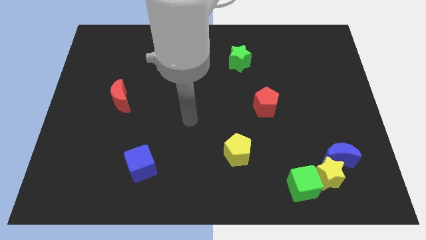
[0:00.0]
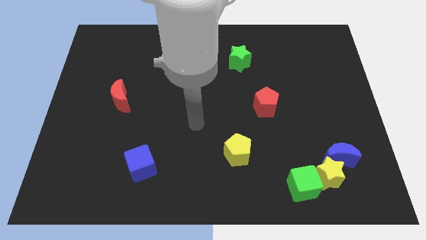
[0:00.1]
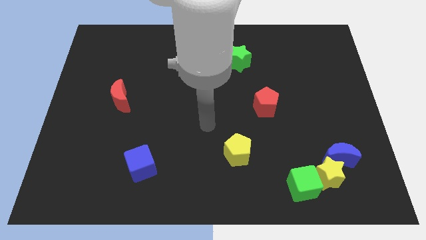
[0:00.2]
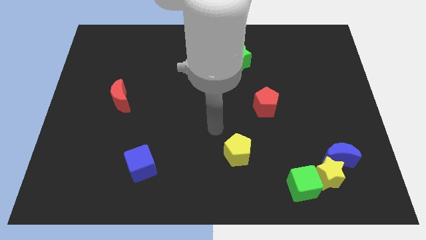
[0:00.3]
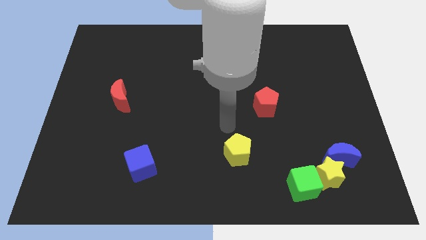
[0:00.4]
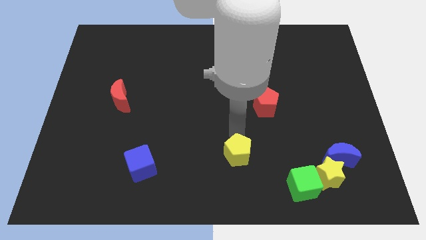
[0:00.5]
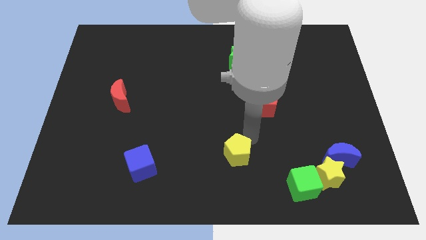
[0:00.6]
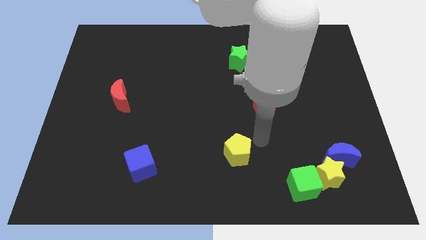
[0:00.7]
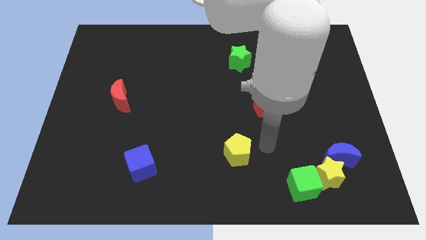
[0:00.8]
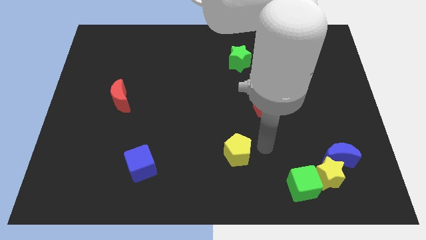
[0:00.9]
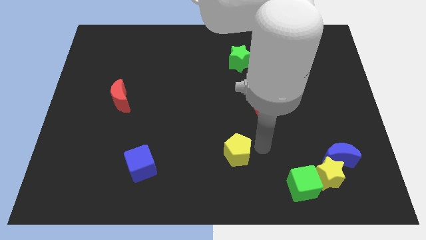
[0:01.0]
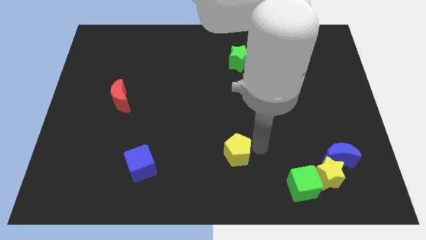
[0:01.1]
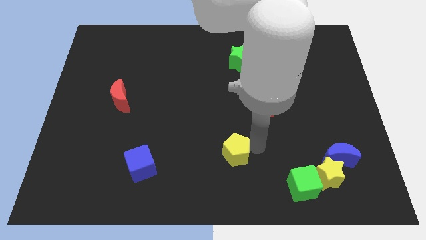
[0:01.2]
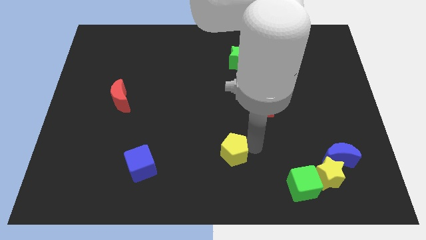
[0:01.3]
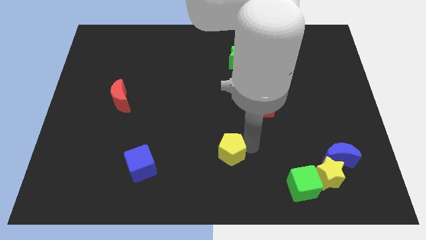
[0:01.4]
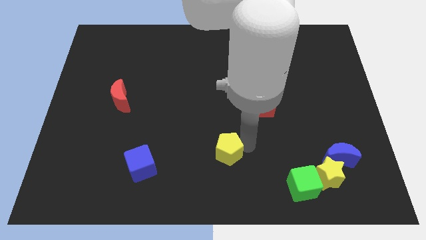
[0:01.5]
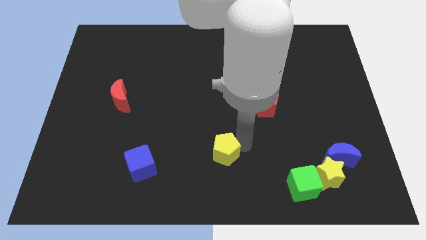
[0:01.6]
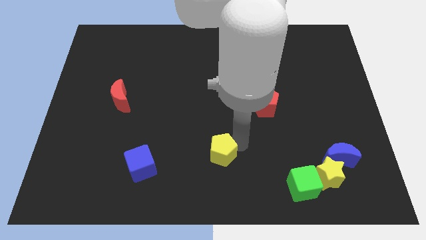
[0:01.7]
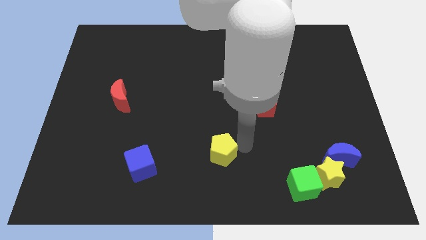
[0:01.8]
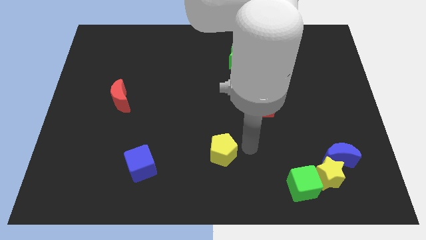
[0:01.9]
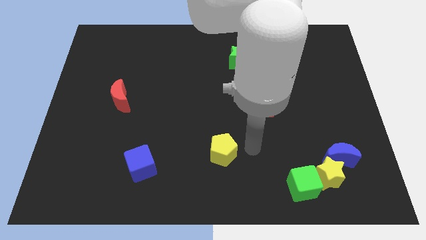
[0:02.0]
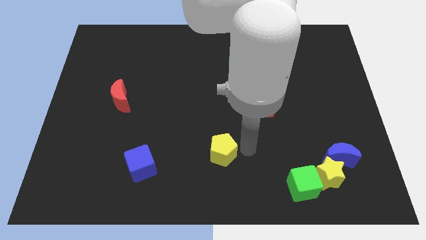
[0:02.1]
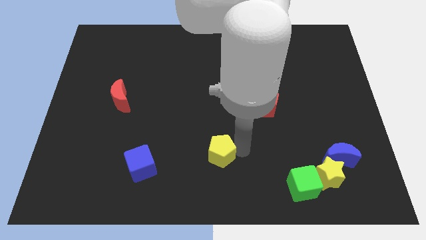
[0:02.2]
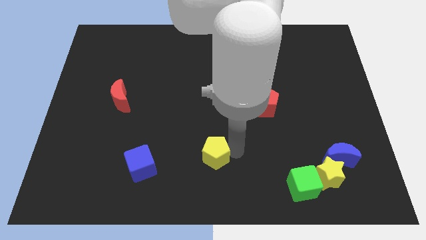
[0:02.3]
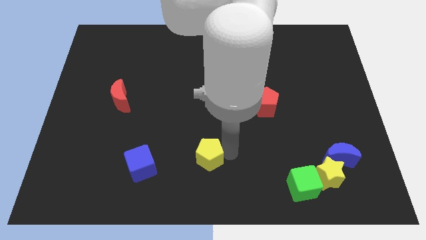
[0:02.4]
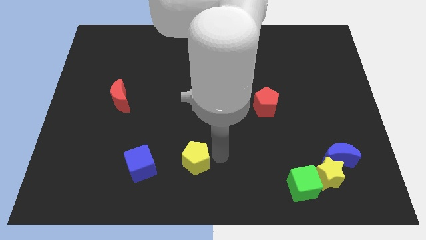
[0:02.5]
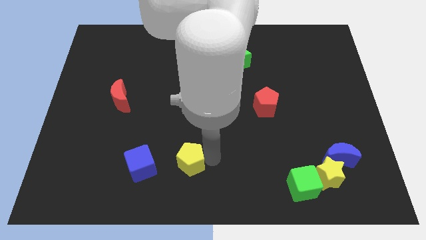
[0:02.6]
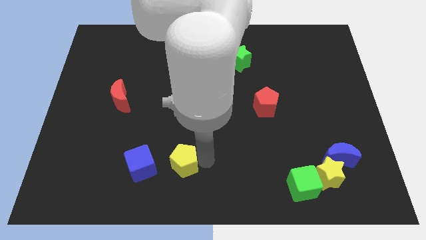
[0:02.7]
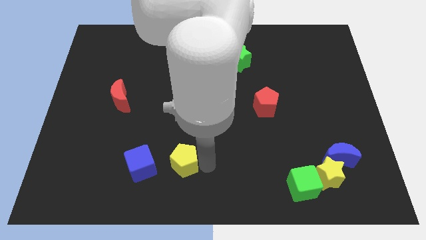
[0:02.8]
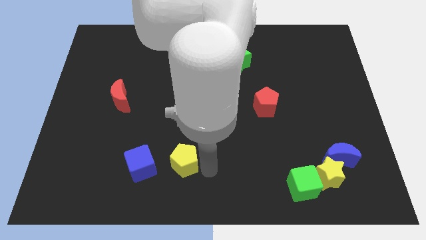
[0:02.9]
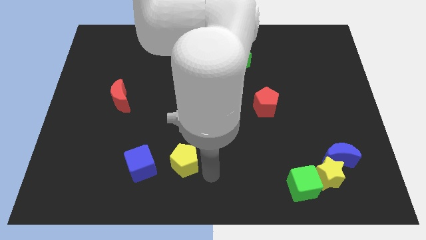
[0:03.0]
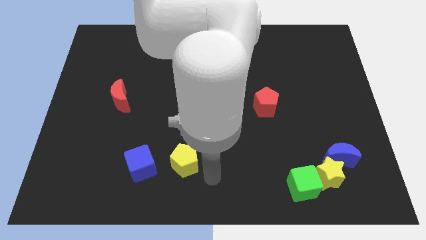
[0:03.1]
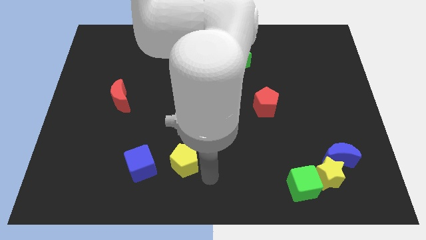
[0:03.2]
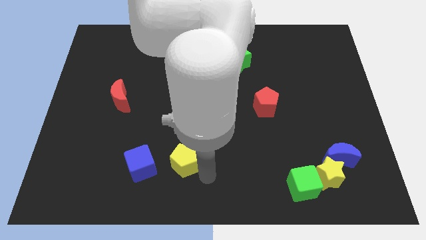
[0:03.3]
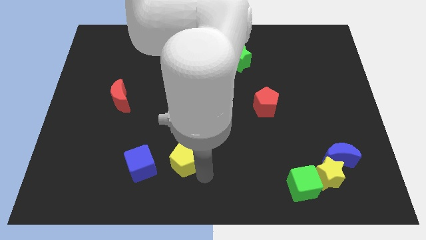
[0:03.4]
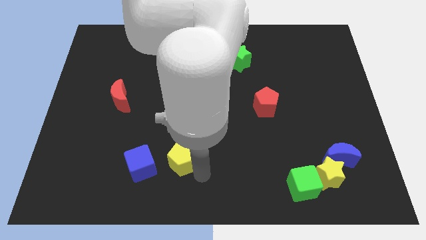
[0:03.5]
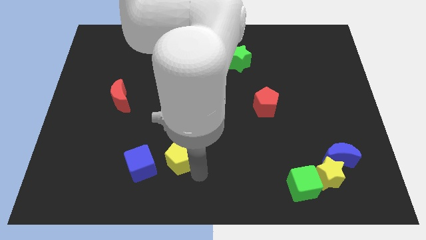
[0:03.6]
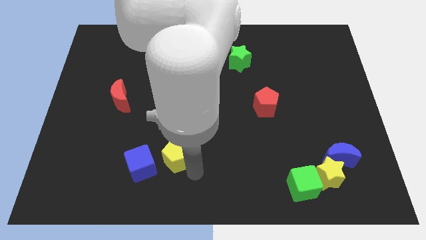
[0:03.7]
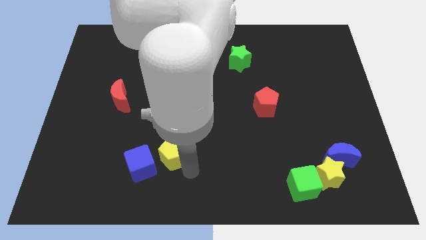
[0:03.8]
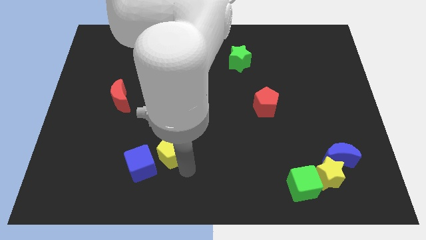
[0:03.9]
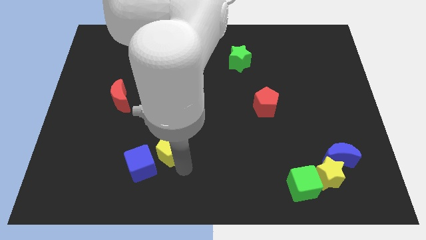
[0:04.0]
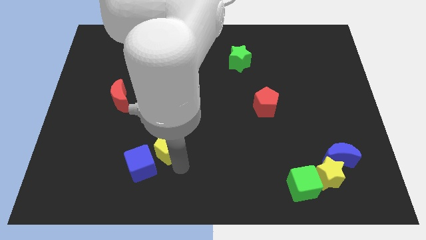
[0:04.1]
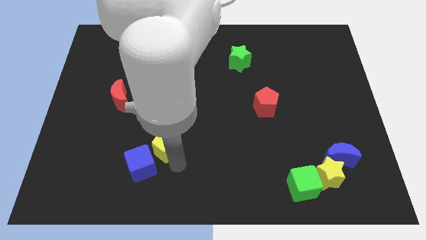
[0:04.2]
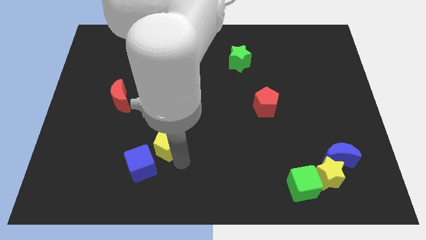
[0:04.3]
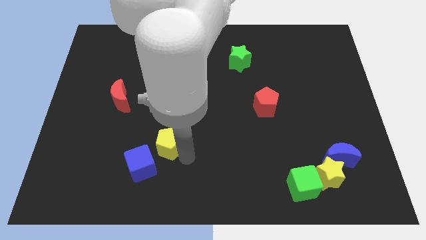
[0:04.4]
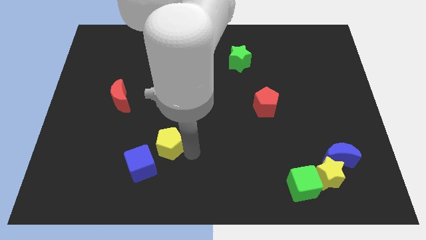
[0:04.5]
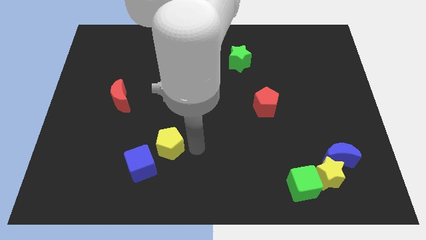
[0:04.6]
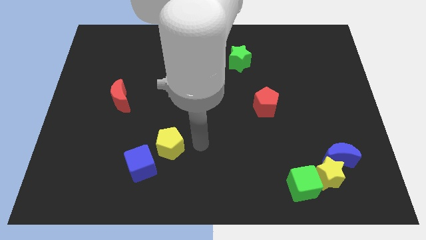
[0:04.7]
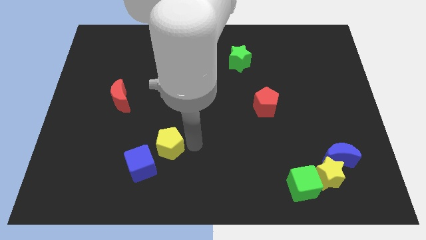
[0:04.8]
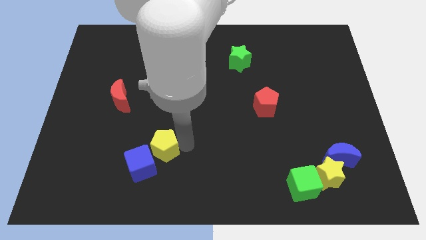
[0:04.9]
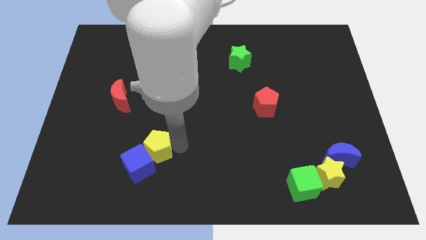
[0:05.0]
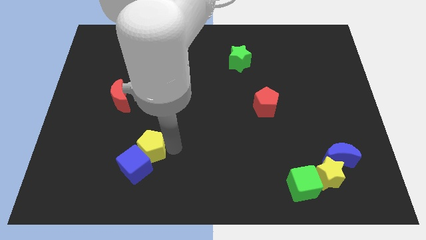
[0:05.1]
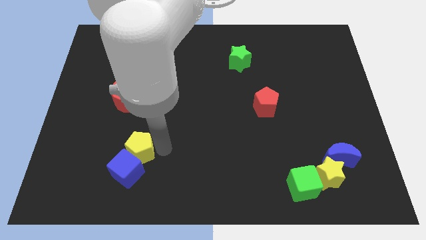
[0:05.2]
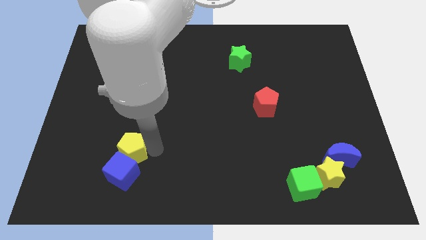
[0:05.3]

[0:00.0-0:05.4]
move the yellow pentagon to the top left side of the blue cube

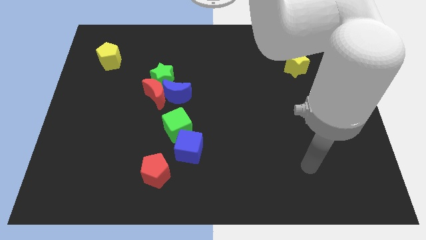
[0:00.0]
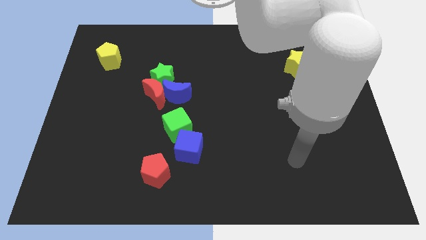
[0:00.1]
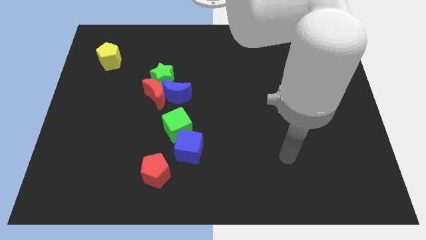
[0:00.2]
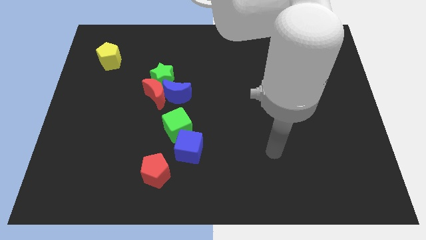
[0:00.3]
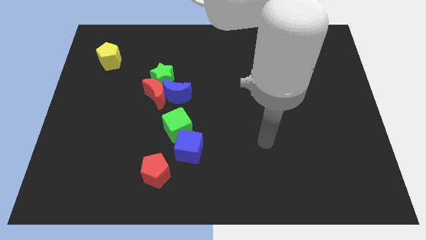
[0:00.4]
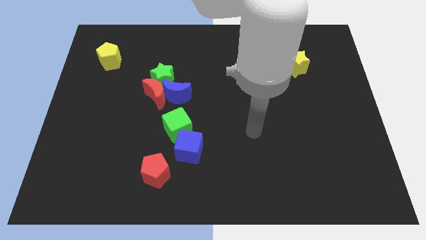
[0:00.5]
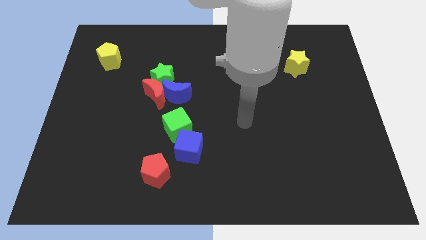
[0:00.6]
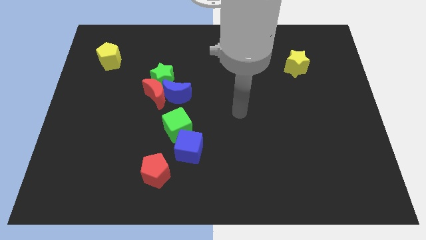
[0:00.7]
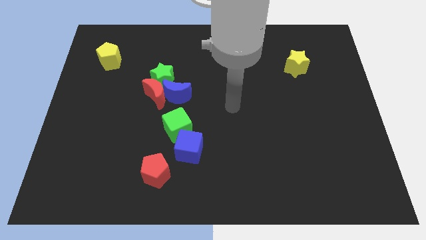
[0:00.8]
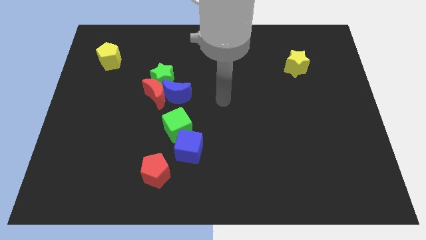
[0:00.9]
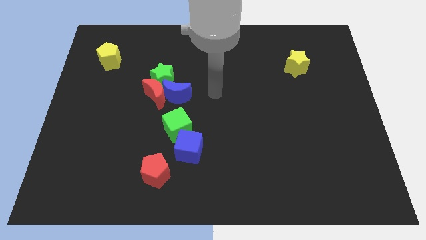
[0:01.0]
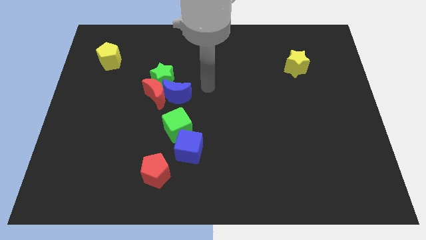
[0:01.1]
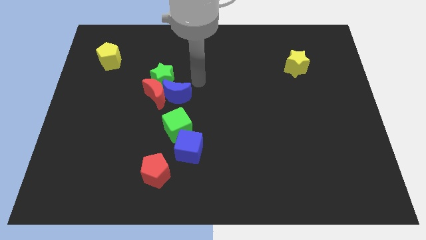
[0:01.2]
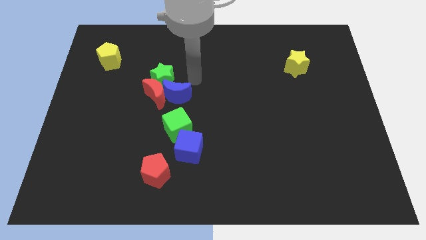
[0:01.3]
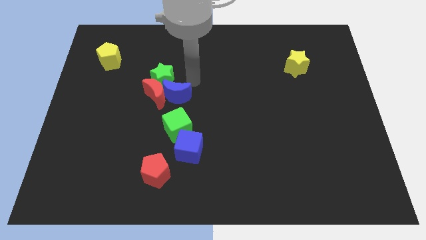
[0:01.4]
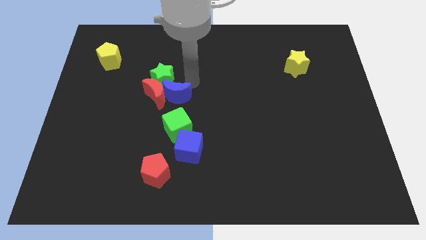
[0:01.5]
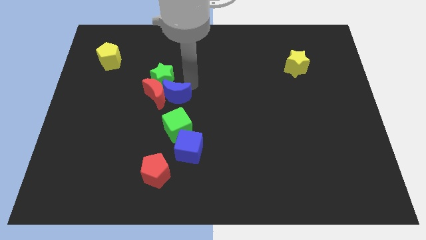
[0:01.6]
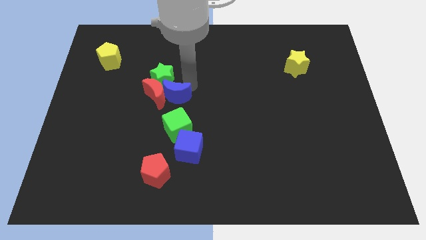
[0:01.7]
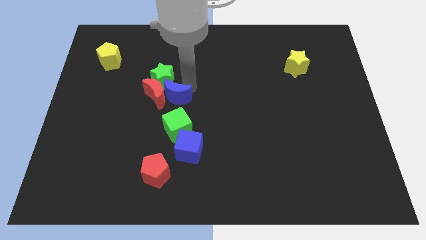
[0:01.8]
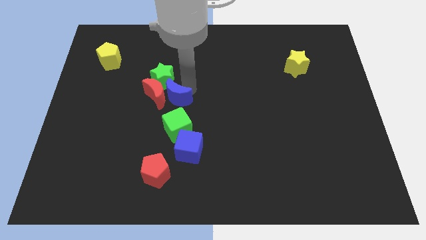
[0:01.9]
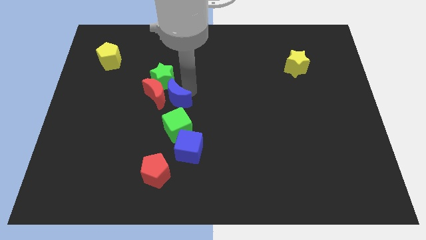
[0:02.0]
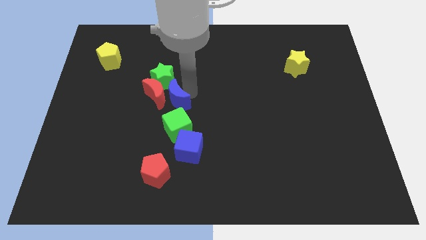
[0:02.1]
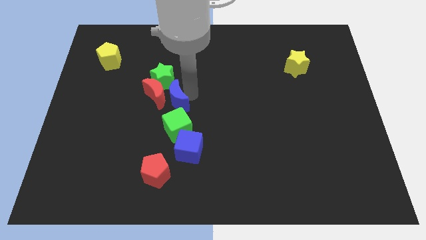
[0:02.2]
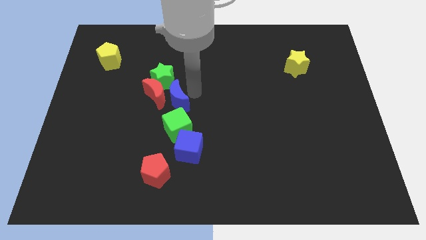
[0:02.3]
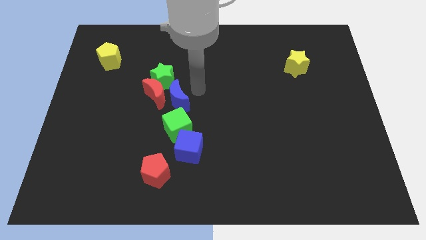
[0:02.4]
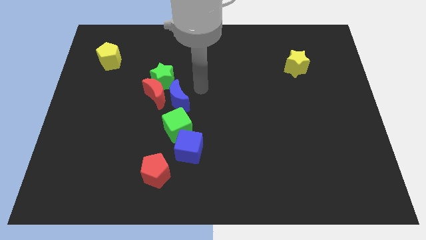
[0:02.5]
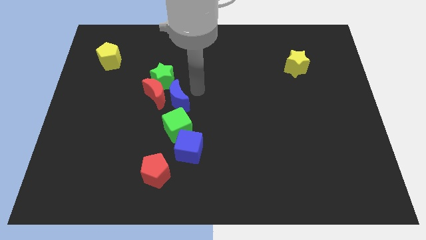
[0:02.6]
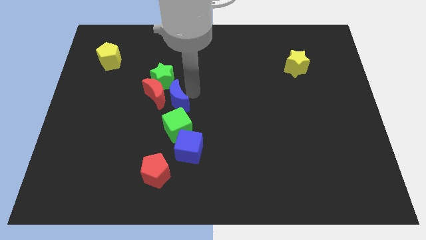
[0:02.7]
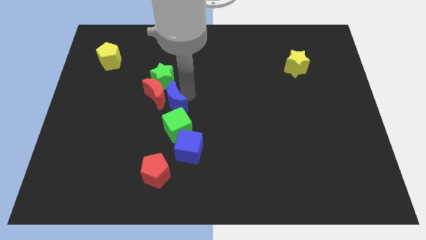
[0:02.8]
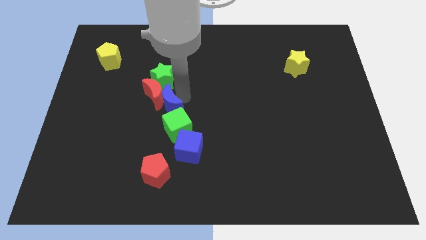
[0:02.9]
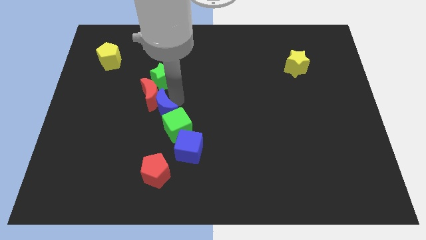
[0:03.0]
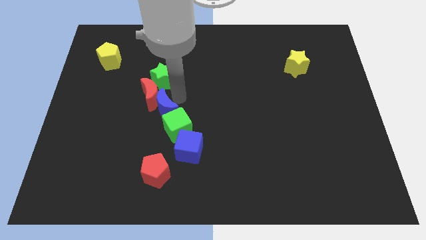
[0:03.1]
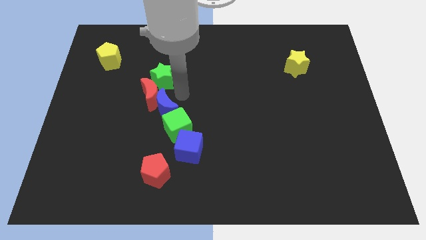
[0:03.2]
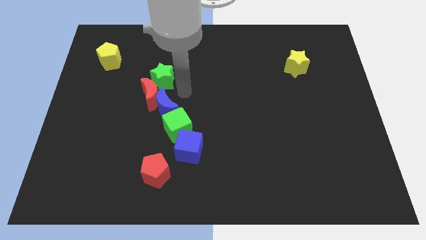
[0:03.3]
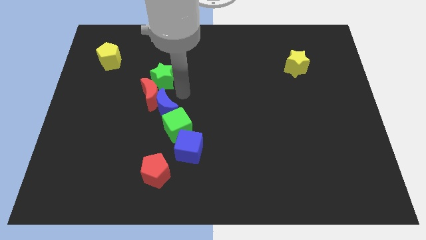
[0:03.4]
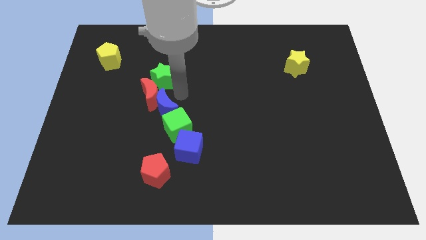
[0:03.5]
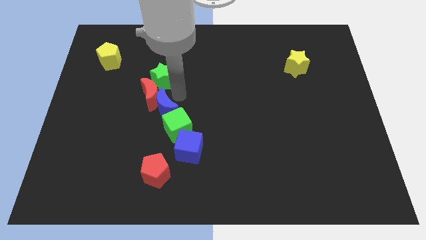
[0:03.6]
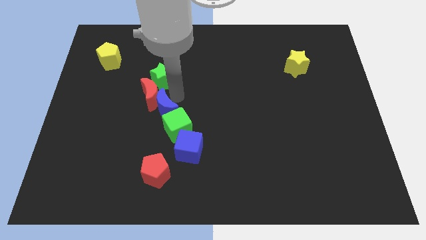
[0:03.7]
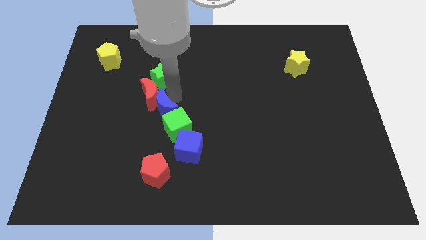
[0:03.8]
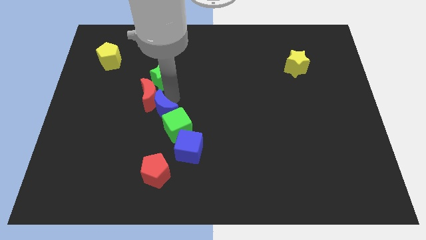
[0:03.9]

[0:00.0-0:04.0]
put the blue moon to the top left of the blue cube
